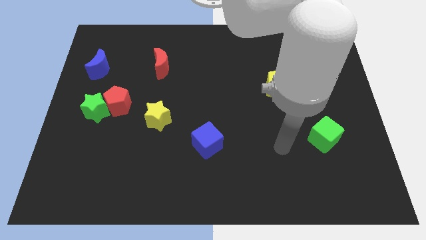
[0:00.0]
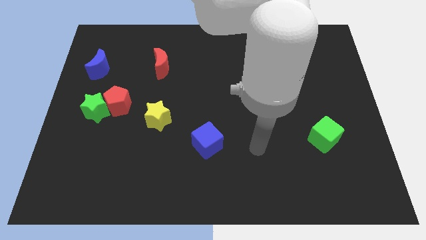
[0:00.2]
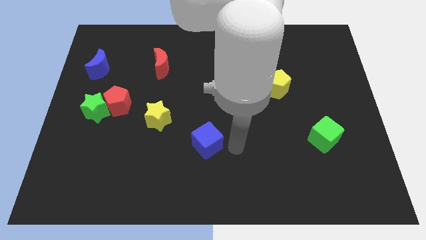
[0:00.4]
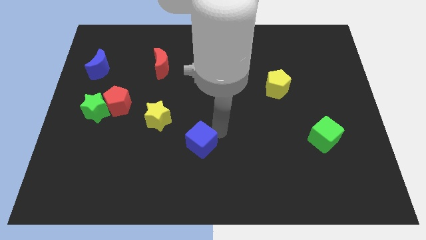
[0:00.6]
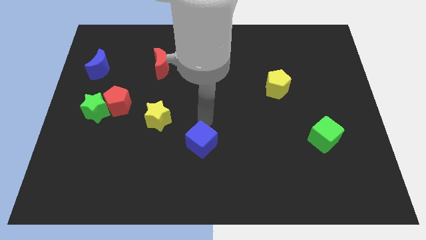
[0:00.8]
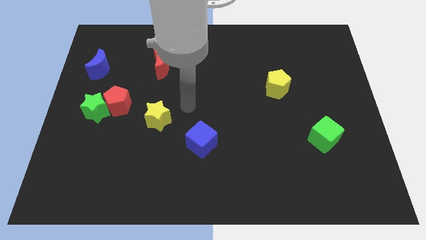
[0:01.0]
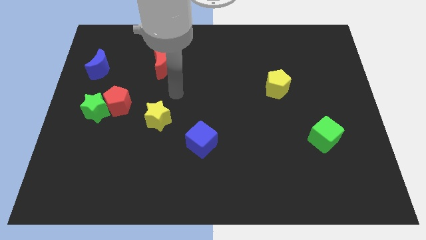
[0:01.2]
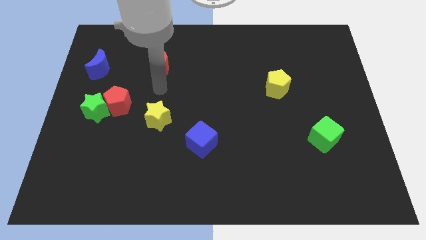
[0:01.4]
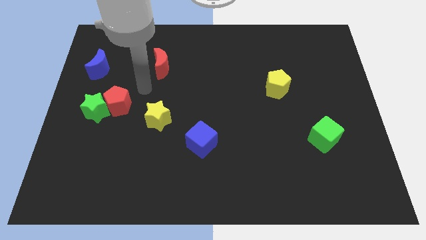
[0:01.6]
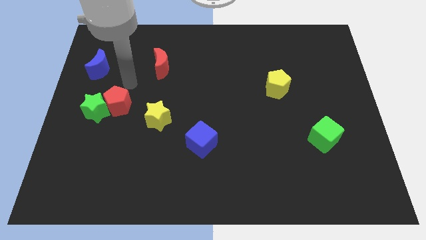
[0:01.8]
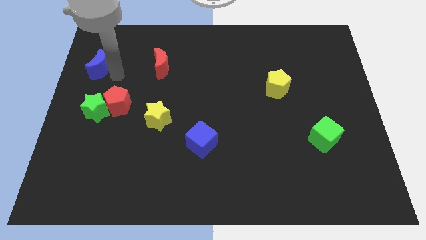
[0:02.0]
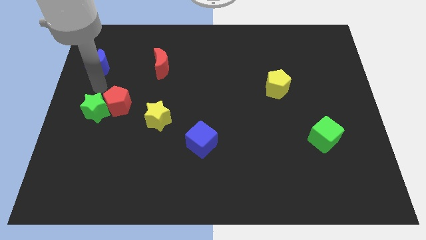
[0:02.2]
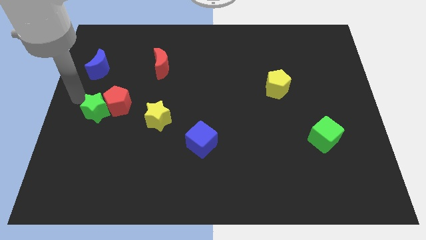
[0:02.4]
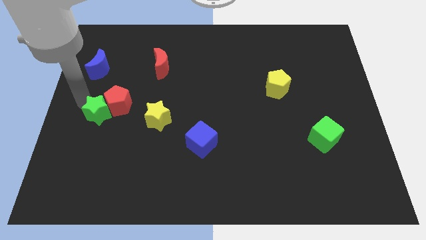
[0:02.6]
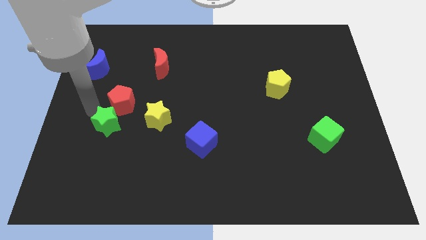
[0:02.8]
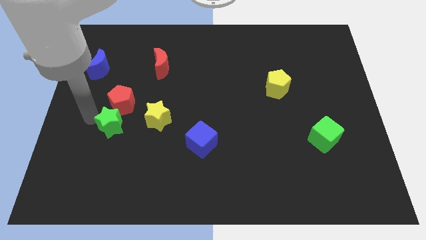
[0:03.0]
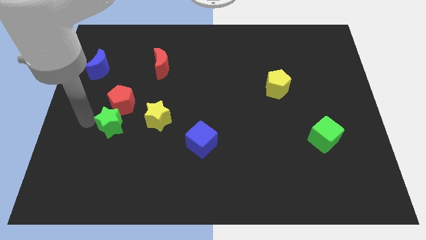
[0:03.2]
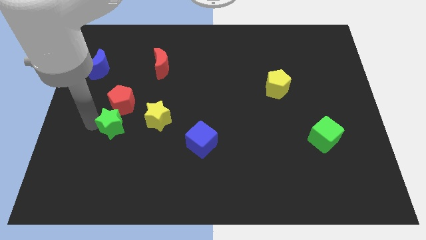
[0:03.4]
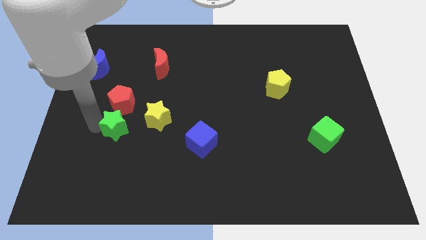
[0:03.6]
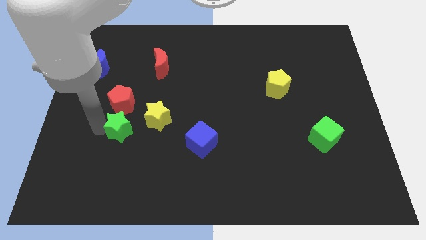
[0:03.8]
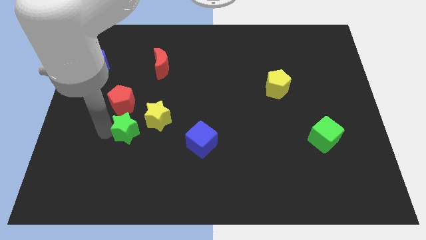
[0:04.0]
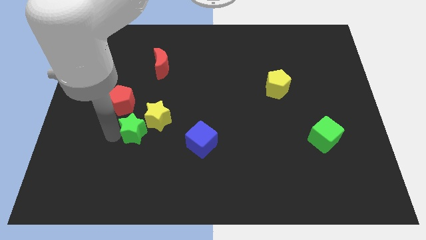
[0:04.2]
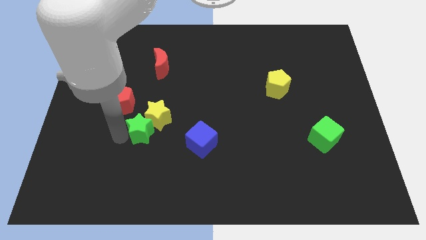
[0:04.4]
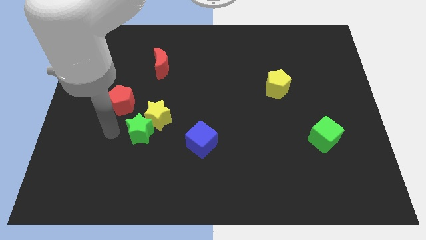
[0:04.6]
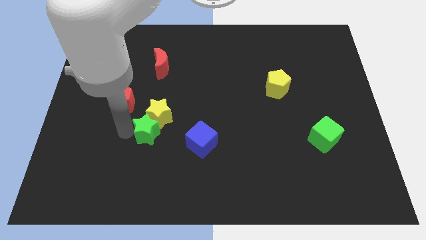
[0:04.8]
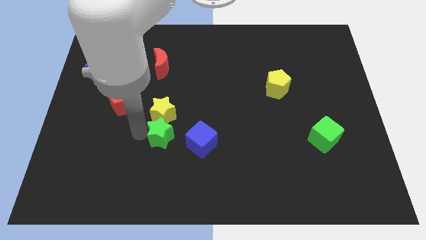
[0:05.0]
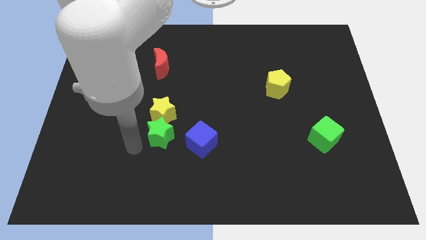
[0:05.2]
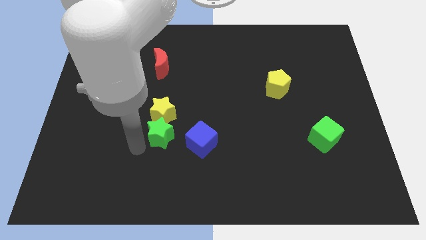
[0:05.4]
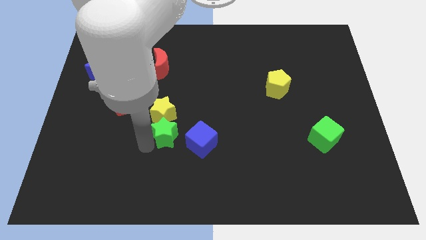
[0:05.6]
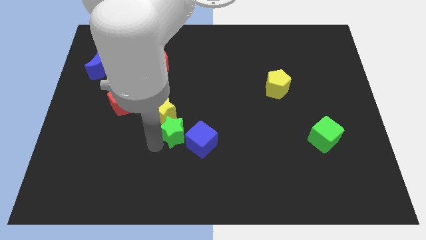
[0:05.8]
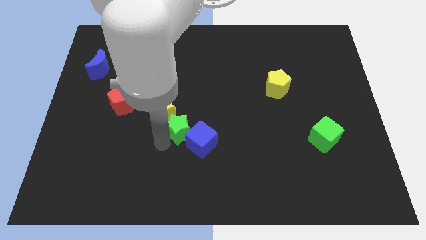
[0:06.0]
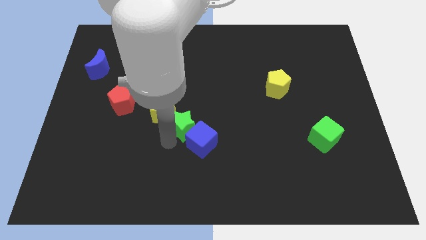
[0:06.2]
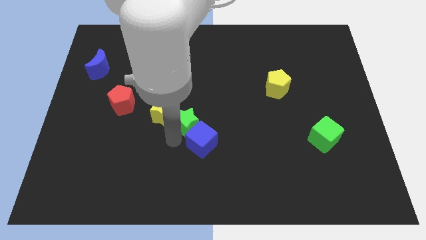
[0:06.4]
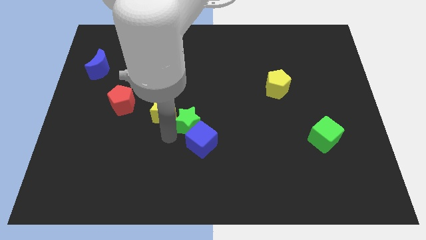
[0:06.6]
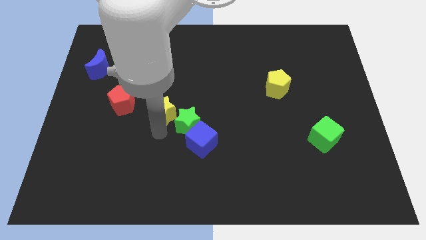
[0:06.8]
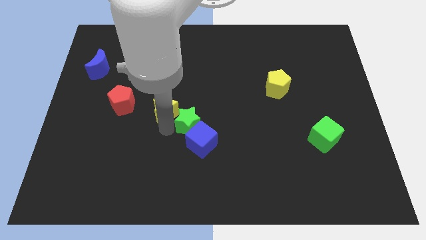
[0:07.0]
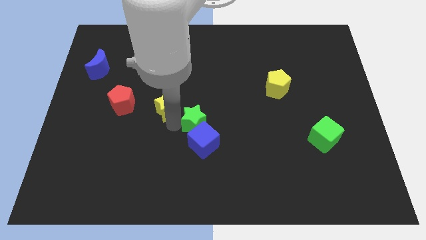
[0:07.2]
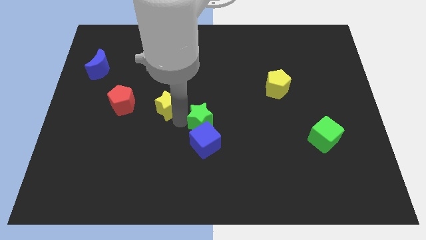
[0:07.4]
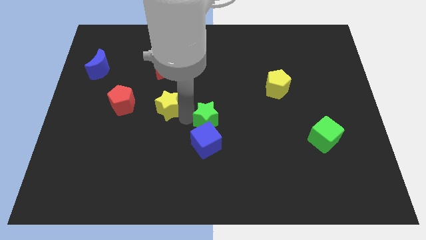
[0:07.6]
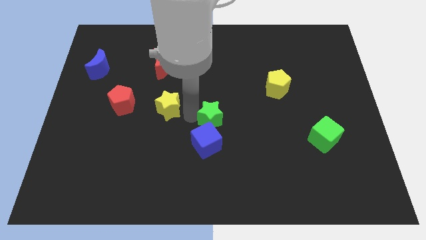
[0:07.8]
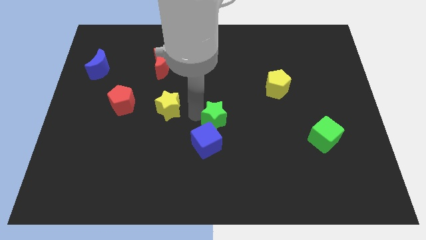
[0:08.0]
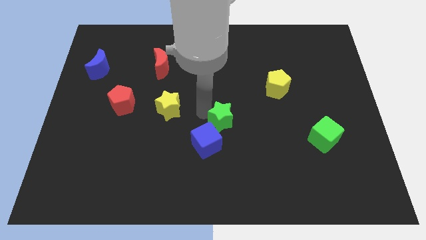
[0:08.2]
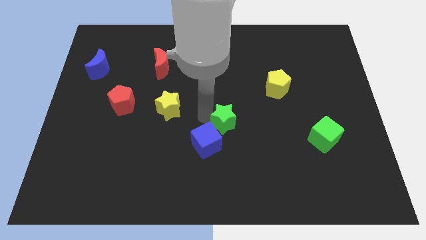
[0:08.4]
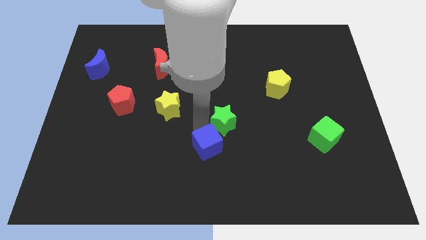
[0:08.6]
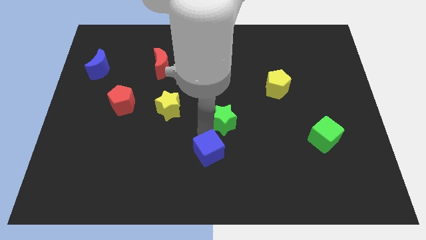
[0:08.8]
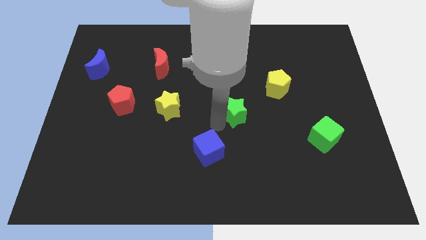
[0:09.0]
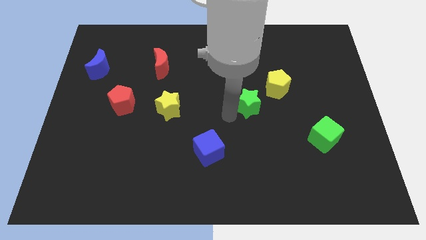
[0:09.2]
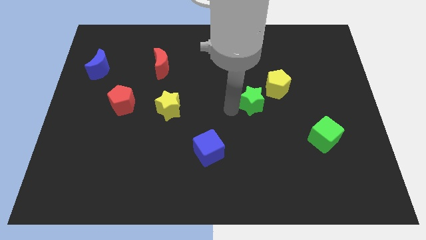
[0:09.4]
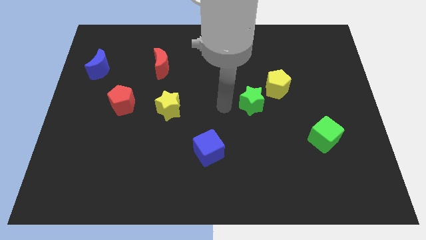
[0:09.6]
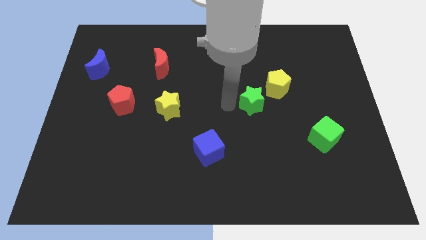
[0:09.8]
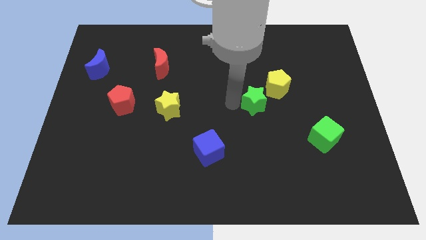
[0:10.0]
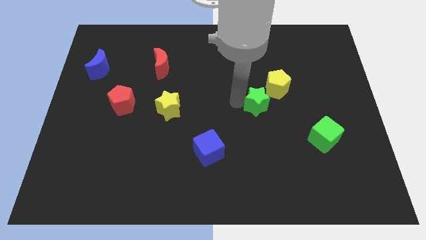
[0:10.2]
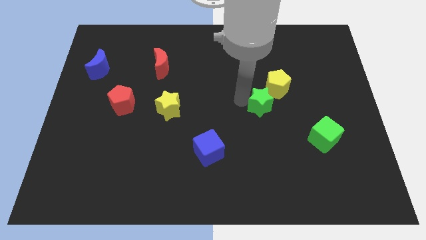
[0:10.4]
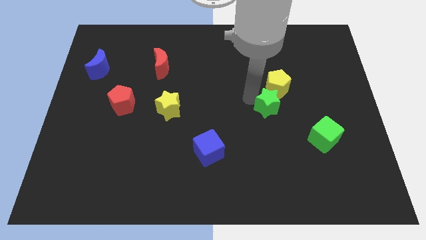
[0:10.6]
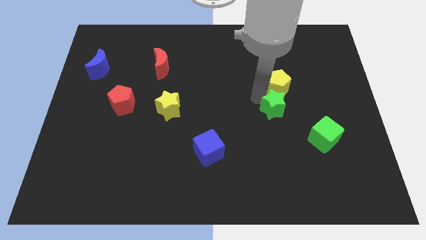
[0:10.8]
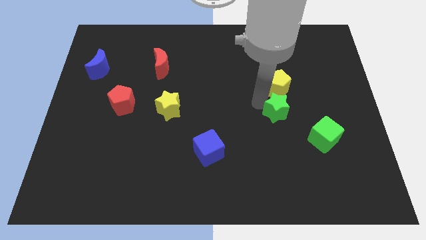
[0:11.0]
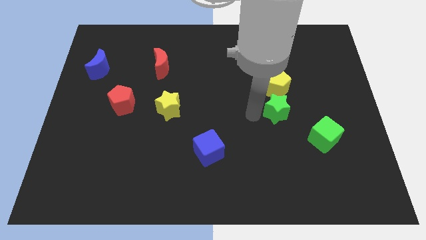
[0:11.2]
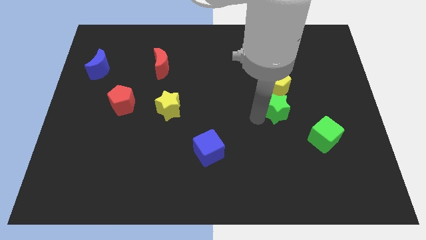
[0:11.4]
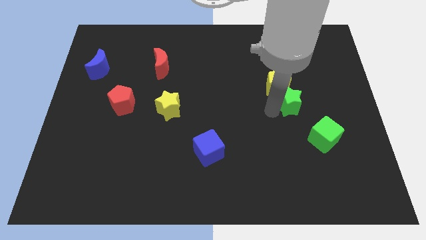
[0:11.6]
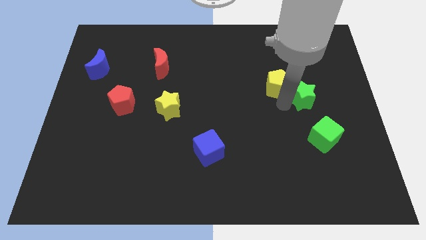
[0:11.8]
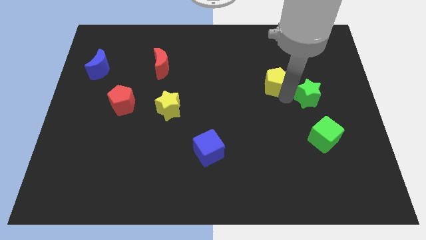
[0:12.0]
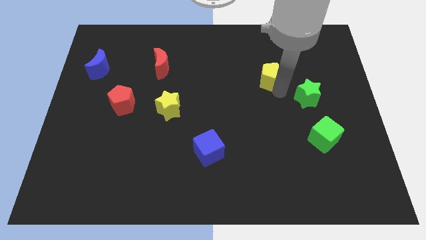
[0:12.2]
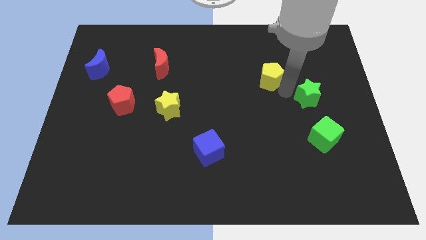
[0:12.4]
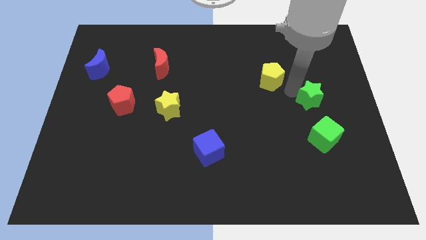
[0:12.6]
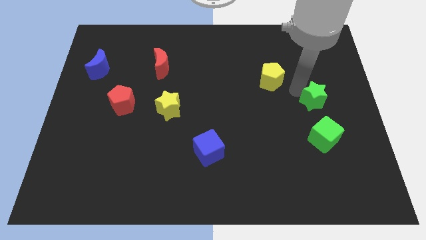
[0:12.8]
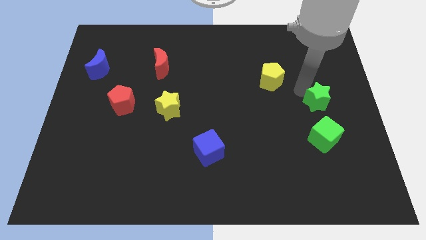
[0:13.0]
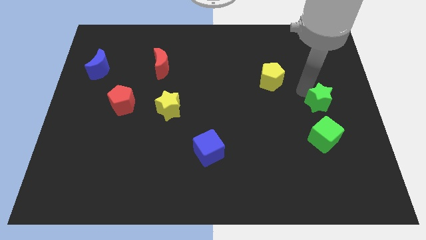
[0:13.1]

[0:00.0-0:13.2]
move the green star to the right side of the board

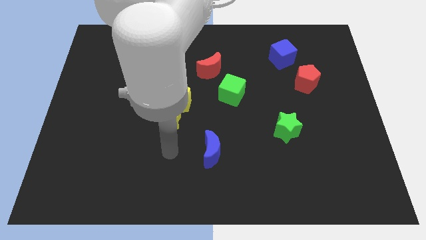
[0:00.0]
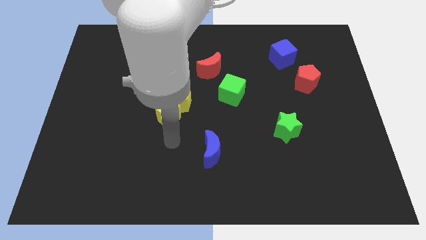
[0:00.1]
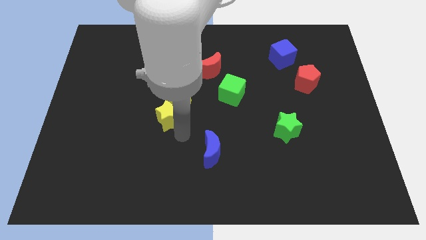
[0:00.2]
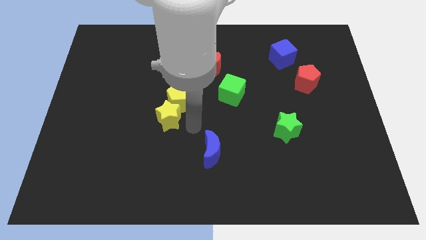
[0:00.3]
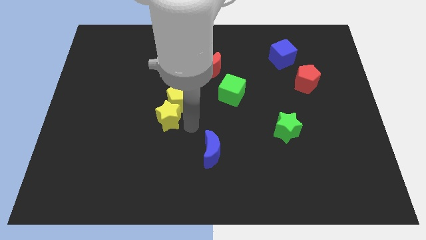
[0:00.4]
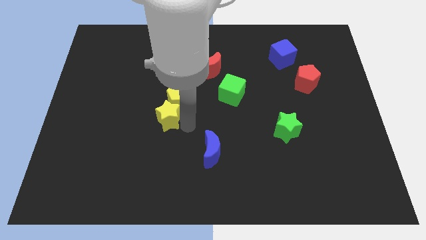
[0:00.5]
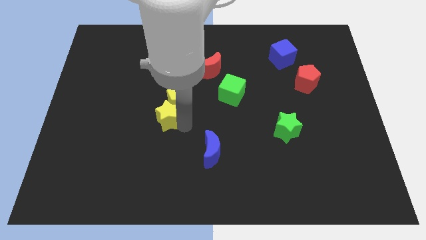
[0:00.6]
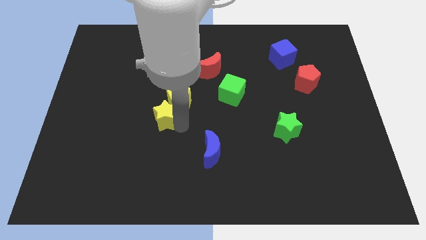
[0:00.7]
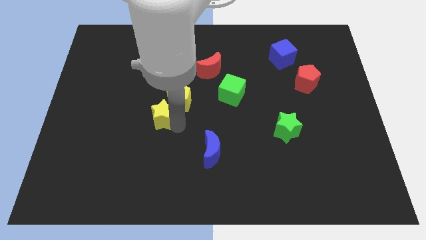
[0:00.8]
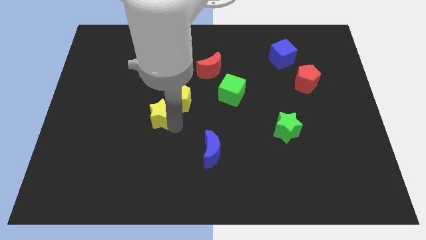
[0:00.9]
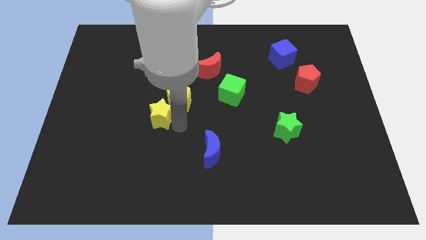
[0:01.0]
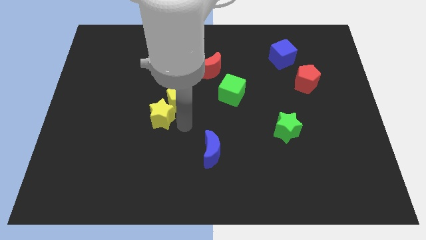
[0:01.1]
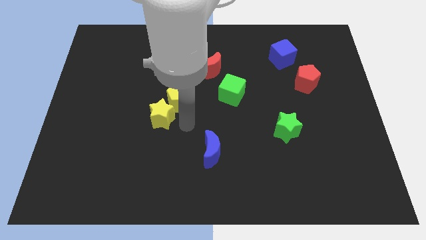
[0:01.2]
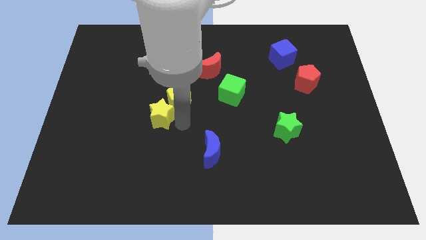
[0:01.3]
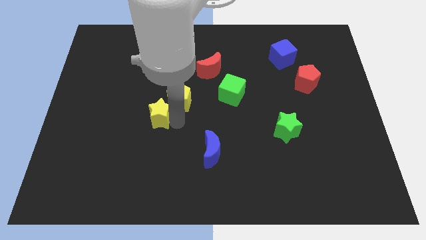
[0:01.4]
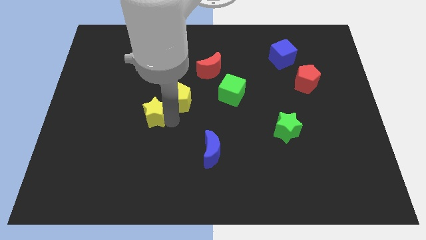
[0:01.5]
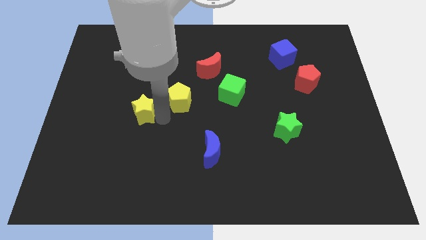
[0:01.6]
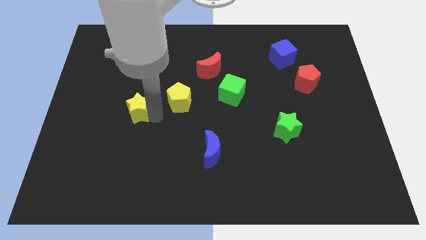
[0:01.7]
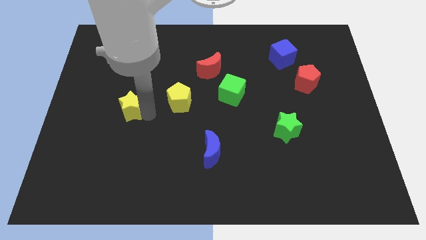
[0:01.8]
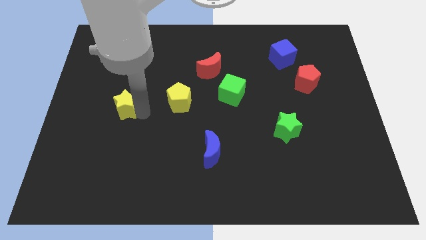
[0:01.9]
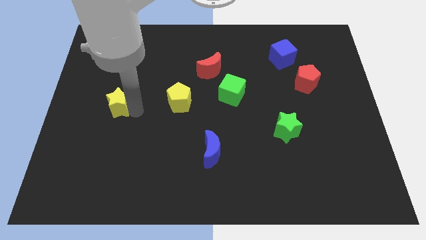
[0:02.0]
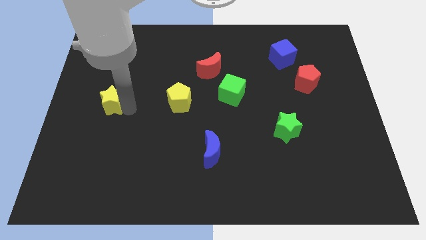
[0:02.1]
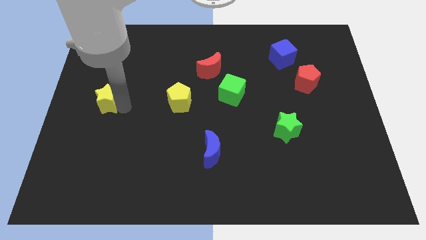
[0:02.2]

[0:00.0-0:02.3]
put the yellow star to the left side of the board
